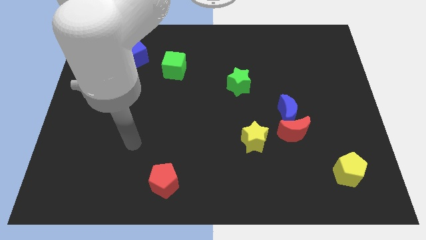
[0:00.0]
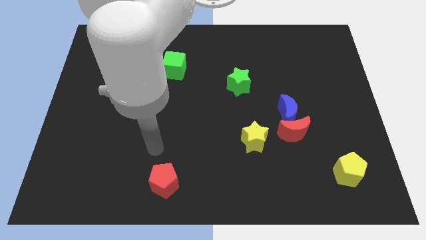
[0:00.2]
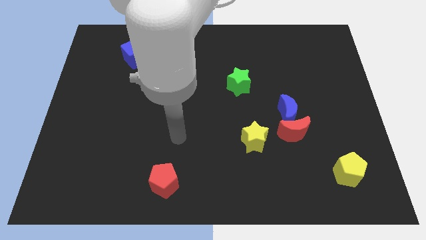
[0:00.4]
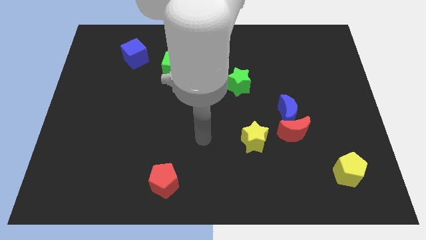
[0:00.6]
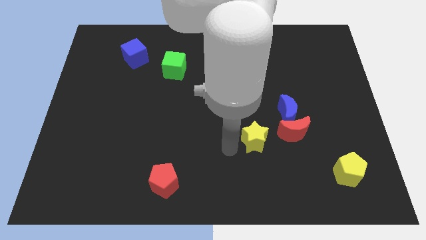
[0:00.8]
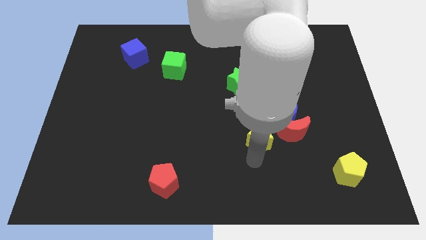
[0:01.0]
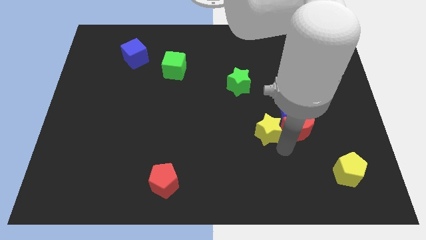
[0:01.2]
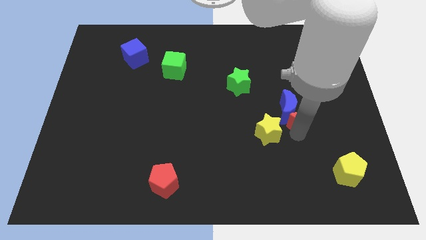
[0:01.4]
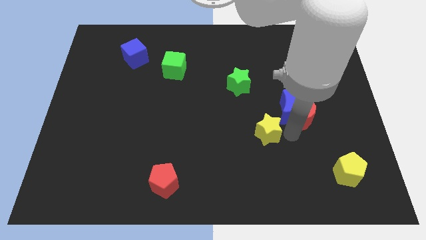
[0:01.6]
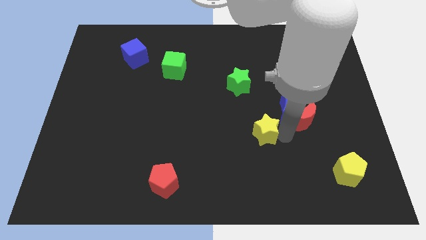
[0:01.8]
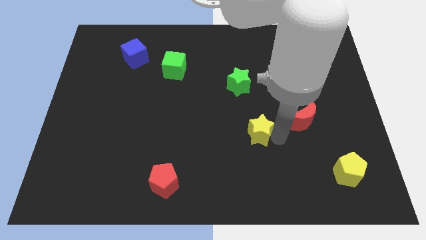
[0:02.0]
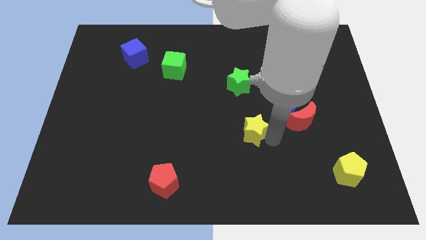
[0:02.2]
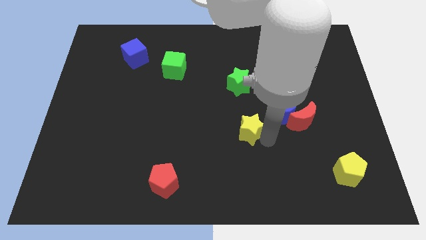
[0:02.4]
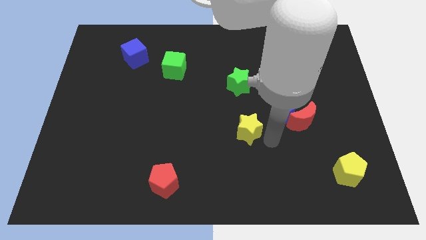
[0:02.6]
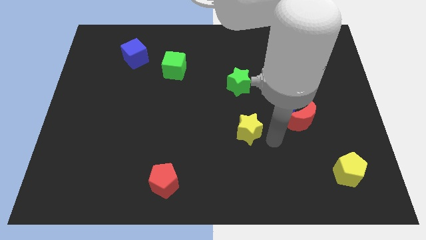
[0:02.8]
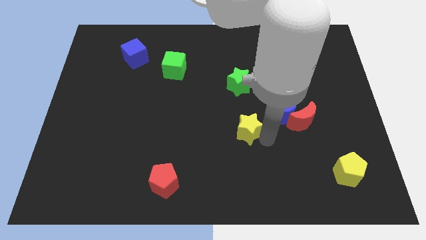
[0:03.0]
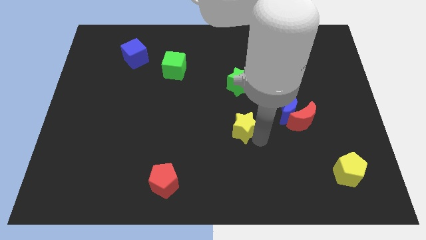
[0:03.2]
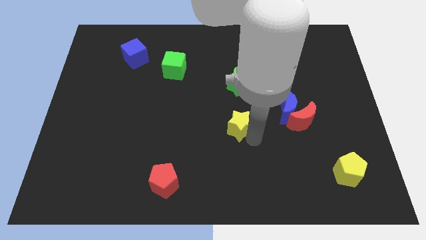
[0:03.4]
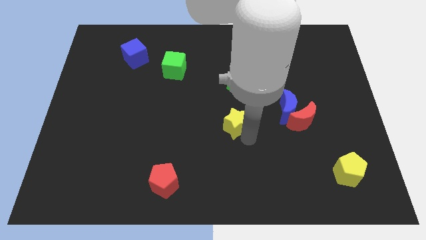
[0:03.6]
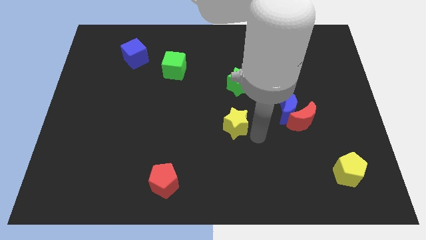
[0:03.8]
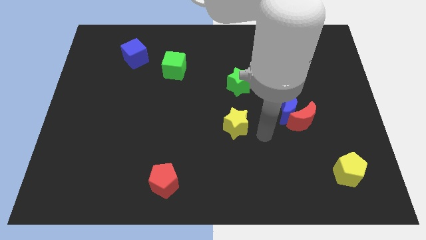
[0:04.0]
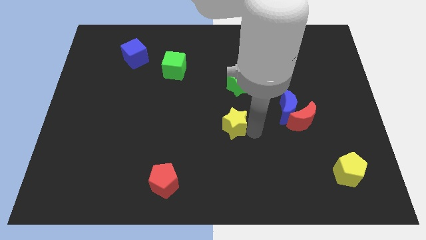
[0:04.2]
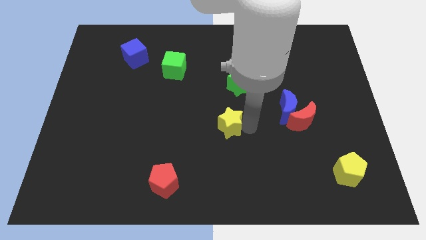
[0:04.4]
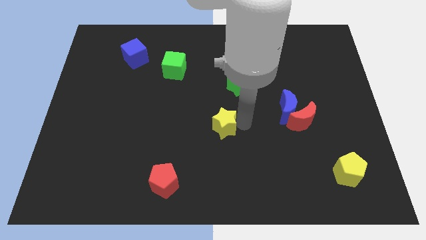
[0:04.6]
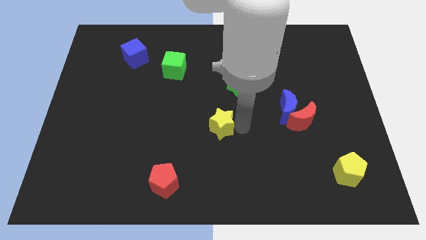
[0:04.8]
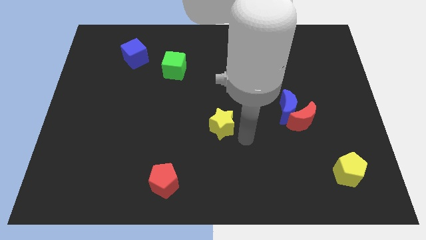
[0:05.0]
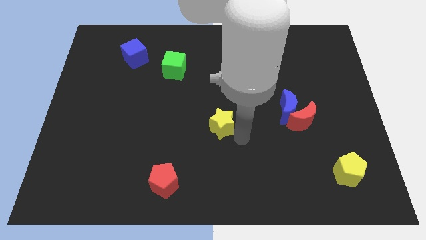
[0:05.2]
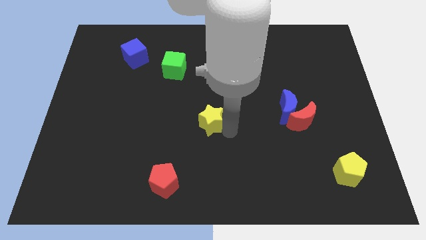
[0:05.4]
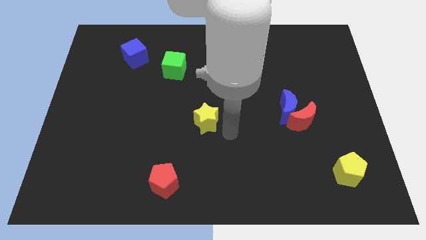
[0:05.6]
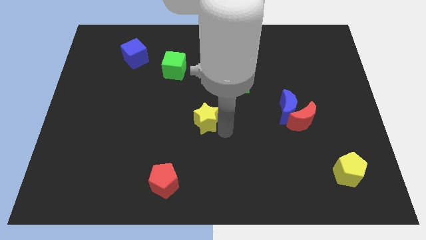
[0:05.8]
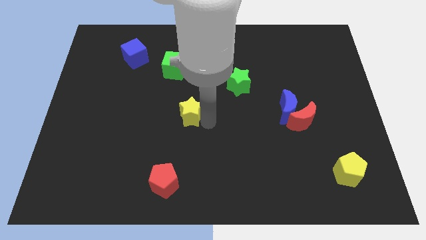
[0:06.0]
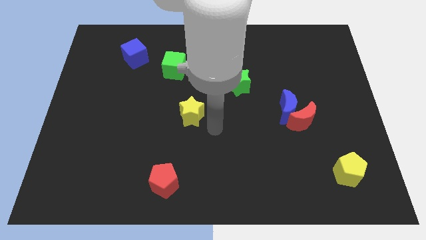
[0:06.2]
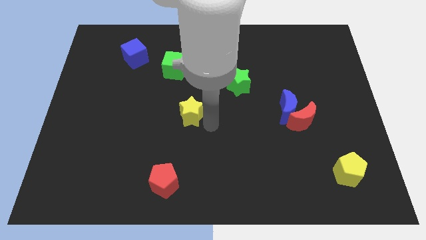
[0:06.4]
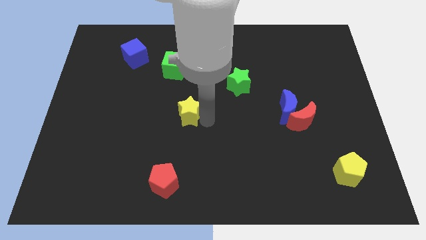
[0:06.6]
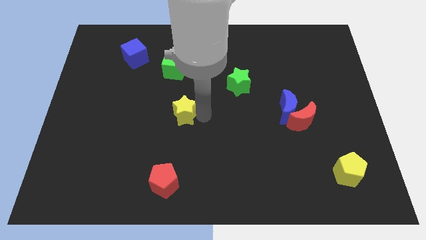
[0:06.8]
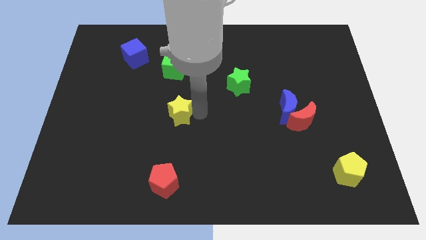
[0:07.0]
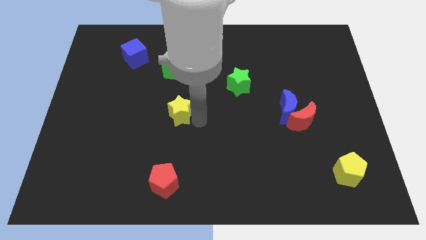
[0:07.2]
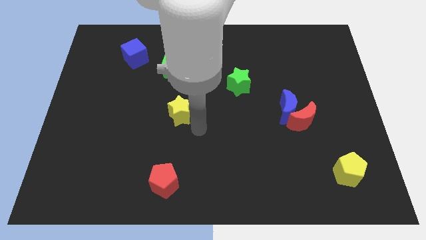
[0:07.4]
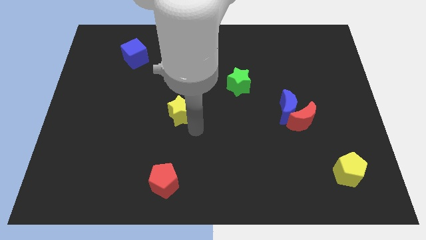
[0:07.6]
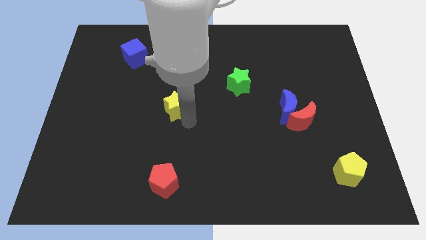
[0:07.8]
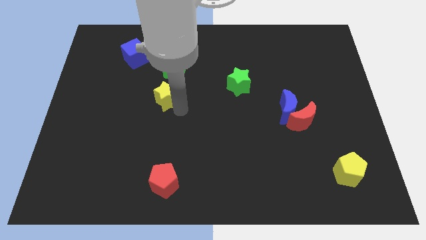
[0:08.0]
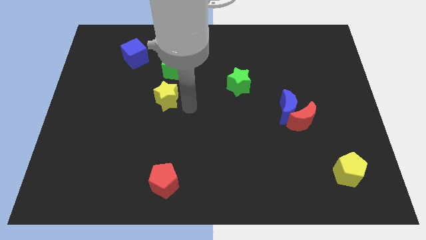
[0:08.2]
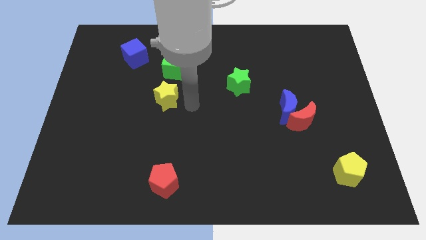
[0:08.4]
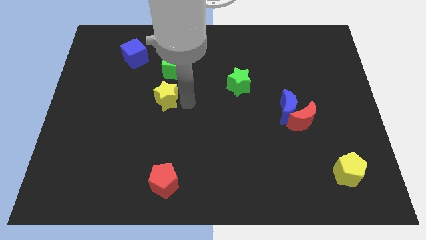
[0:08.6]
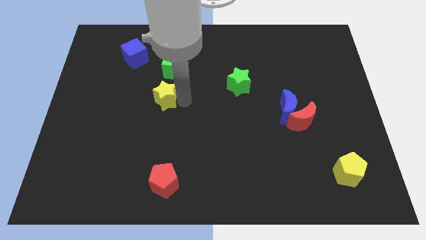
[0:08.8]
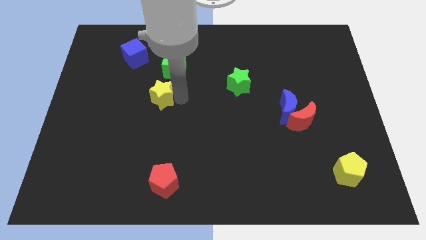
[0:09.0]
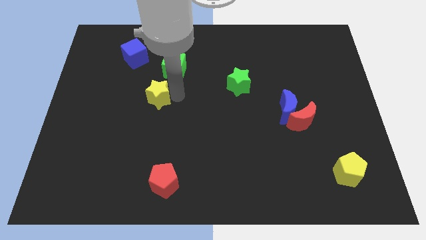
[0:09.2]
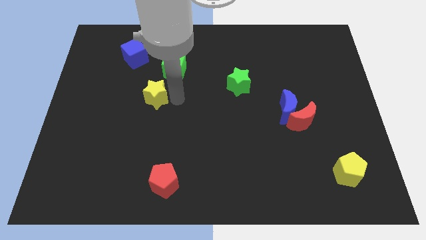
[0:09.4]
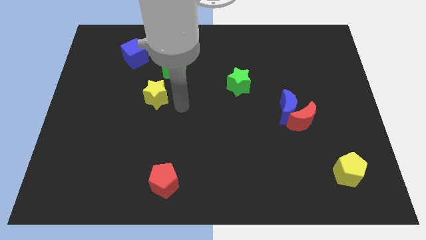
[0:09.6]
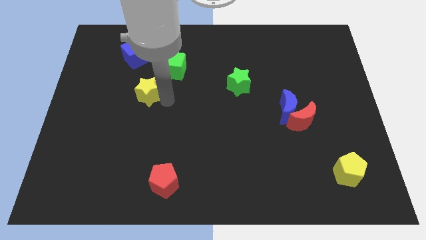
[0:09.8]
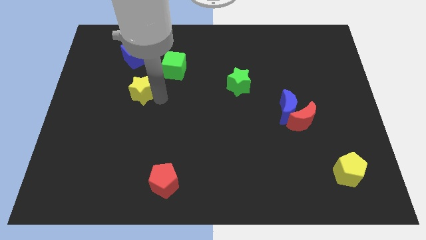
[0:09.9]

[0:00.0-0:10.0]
slide the yellow star to the bottom of the blue cube
